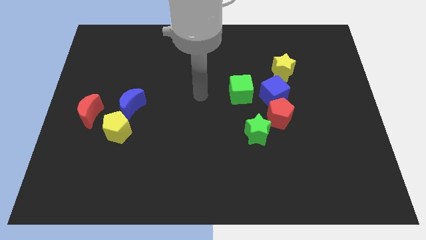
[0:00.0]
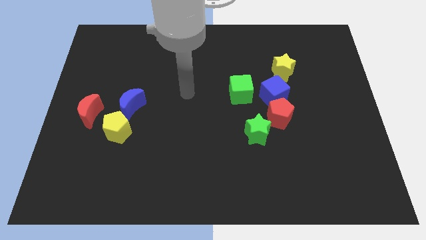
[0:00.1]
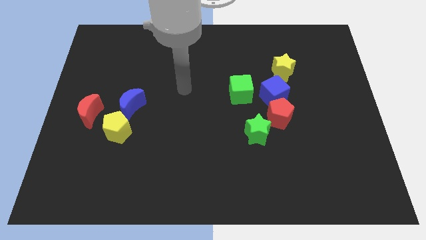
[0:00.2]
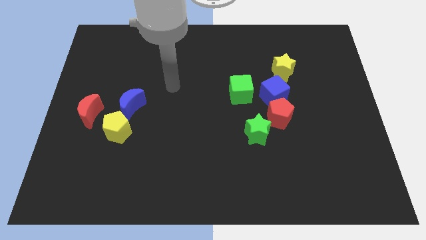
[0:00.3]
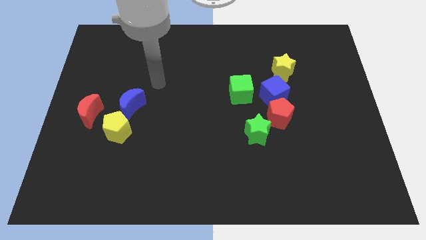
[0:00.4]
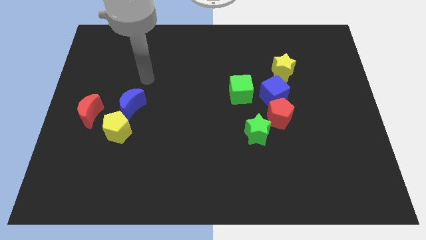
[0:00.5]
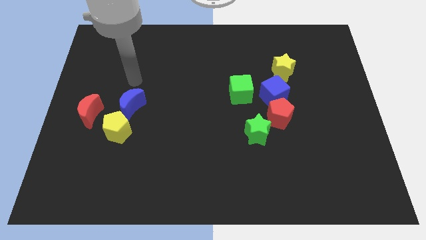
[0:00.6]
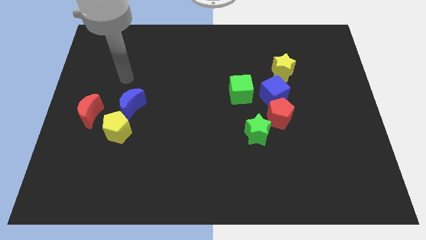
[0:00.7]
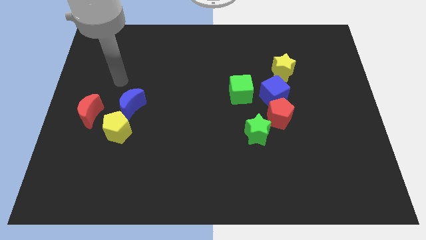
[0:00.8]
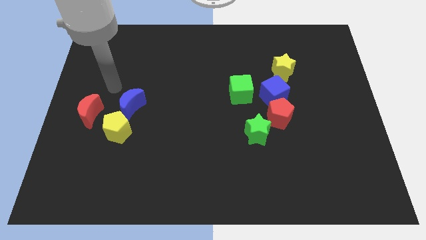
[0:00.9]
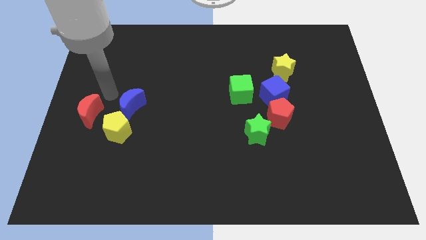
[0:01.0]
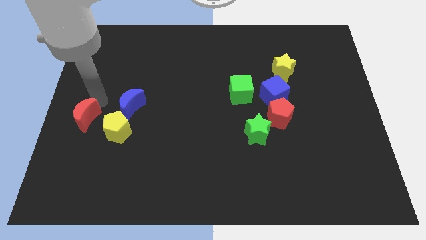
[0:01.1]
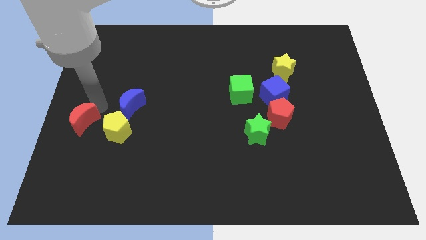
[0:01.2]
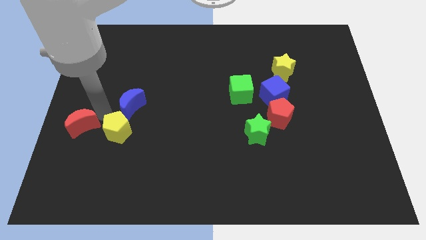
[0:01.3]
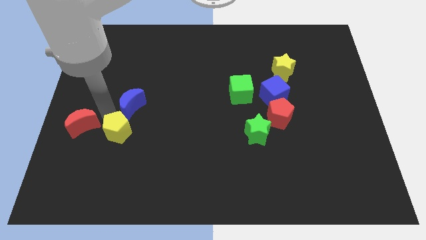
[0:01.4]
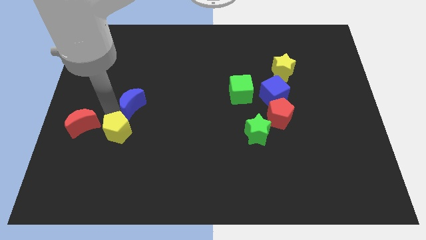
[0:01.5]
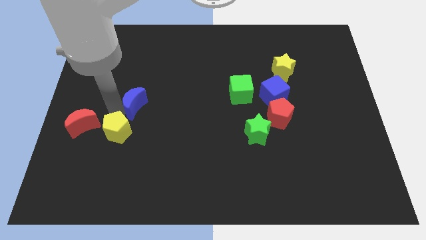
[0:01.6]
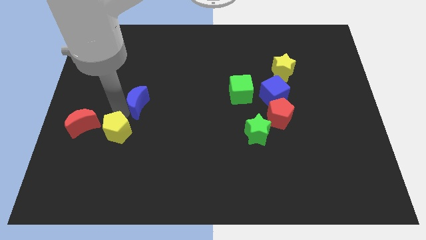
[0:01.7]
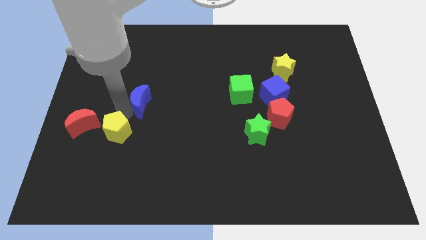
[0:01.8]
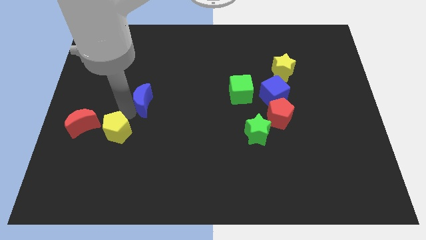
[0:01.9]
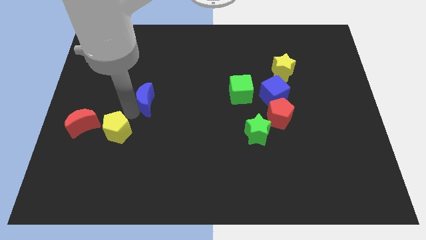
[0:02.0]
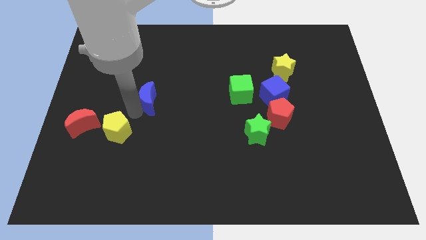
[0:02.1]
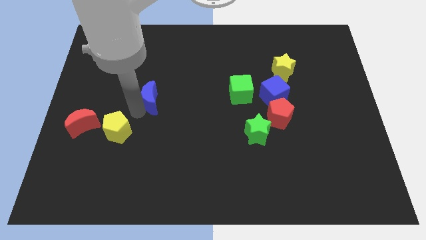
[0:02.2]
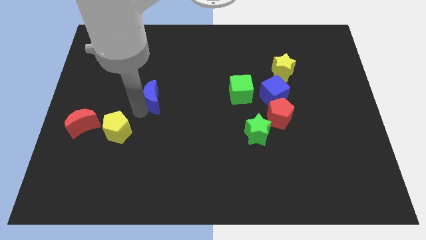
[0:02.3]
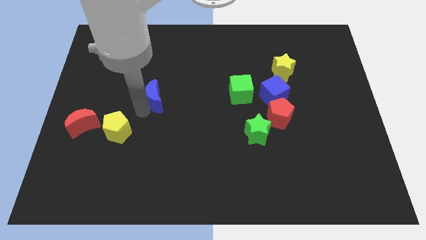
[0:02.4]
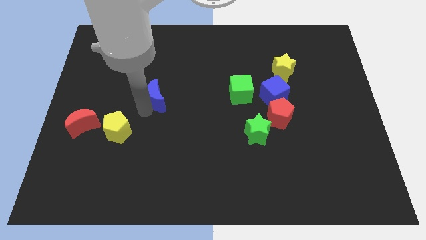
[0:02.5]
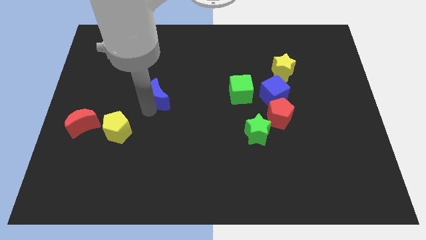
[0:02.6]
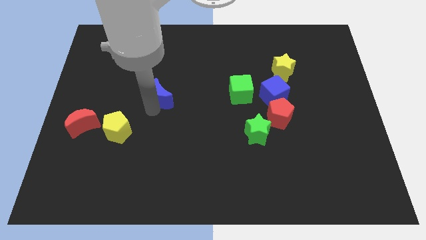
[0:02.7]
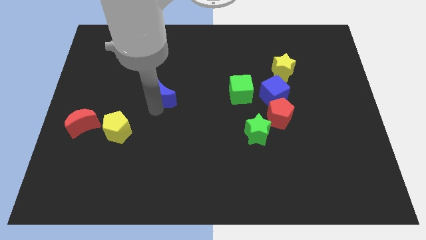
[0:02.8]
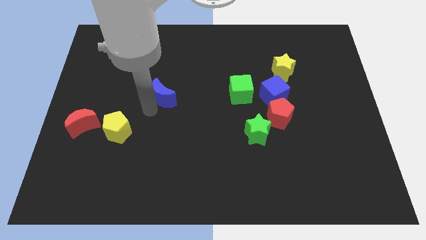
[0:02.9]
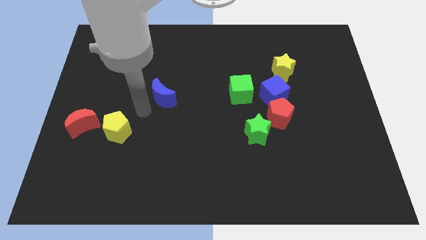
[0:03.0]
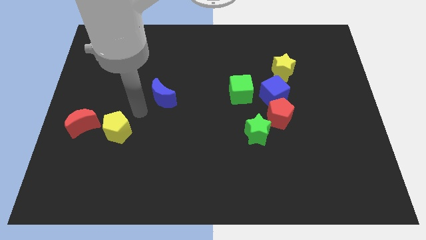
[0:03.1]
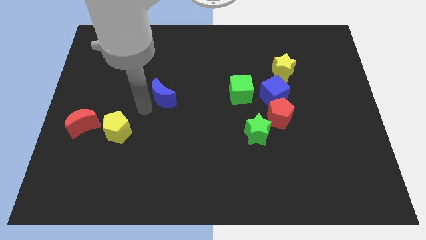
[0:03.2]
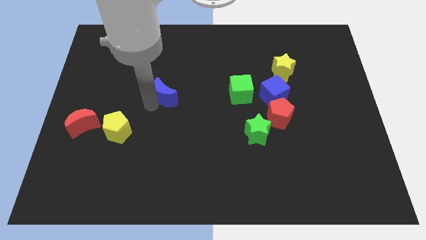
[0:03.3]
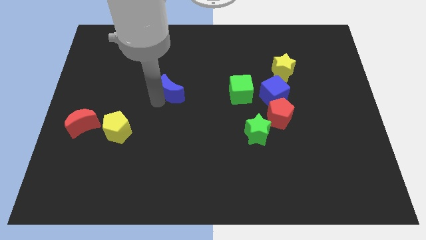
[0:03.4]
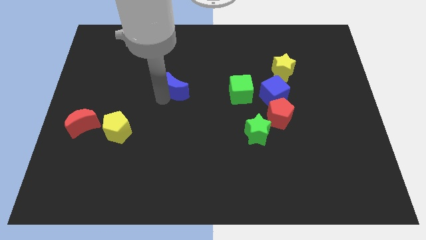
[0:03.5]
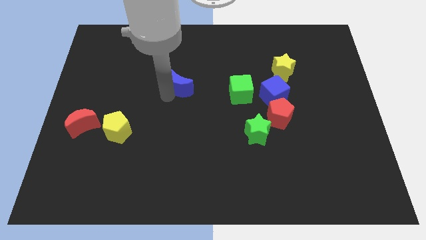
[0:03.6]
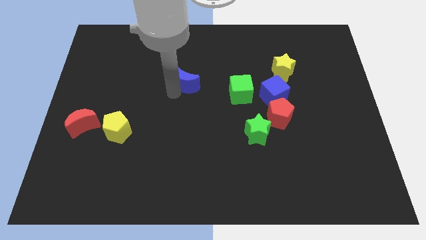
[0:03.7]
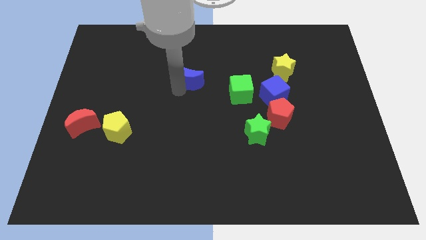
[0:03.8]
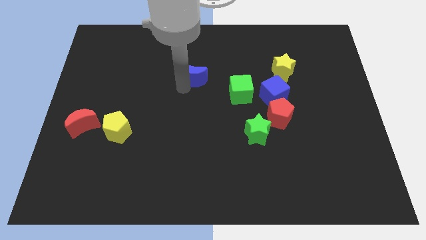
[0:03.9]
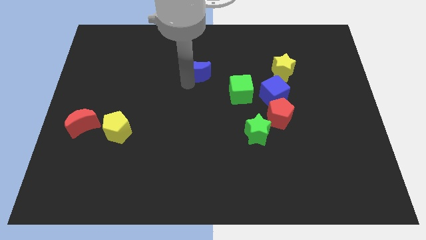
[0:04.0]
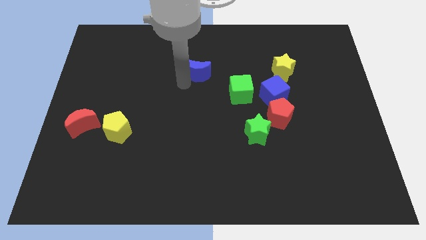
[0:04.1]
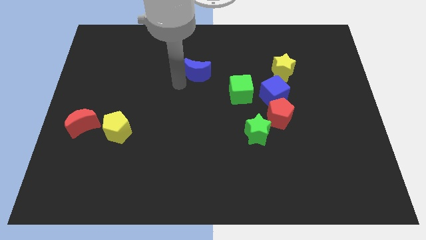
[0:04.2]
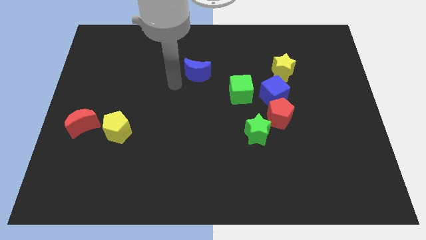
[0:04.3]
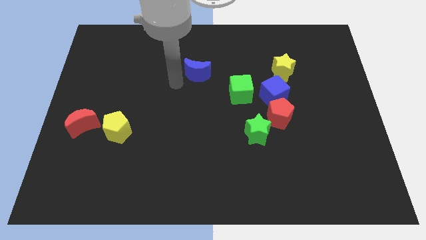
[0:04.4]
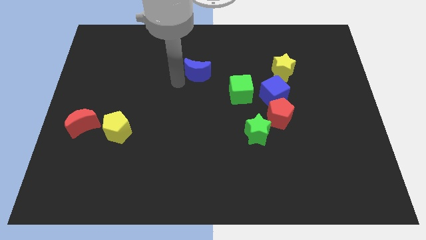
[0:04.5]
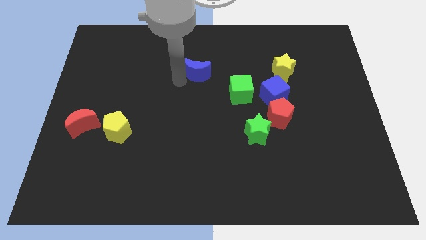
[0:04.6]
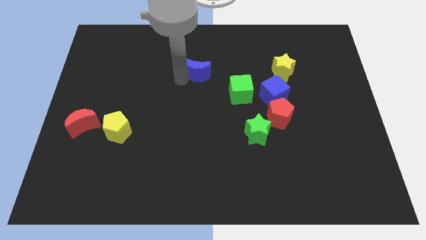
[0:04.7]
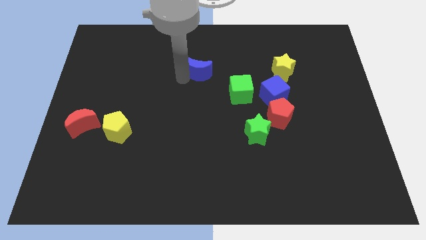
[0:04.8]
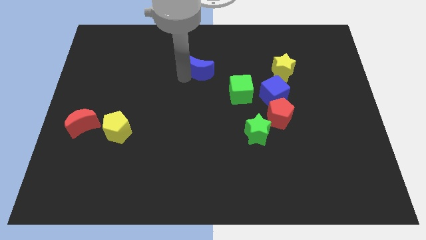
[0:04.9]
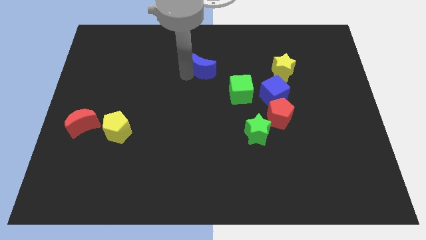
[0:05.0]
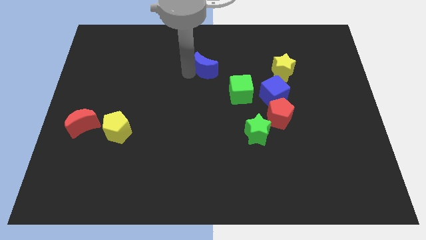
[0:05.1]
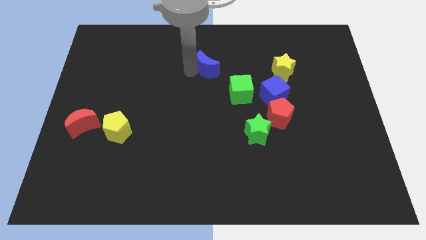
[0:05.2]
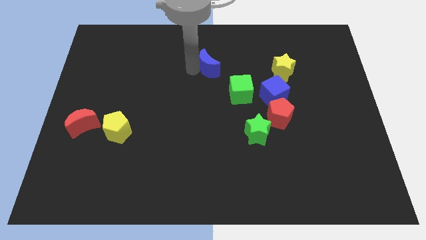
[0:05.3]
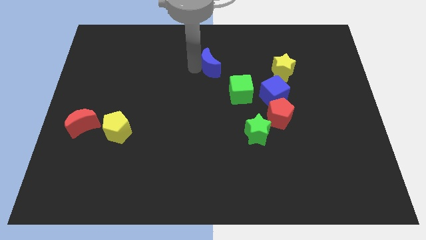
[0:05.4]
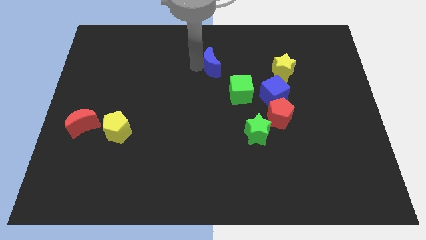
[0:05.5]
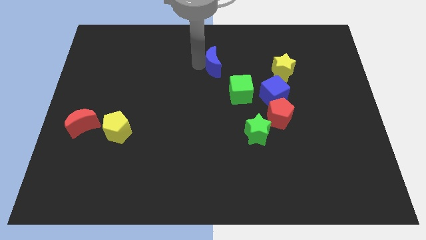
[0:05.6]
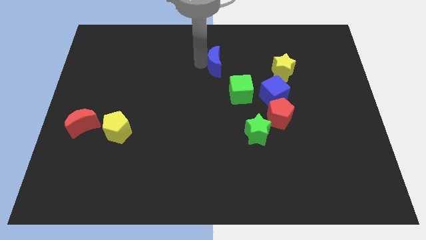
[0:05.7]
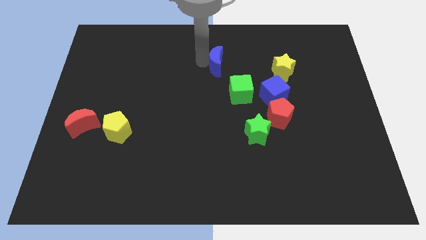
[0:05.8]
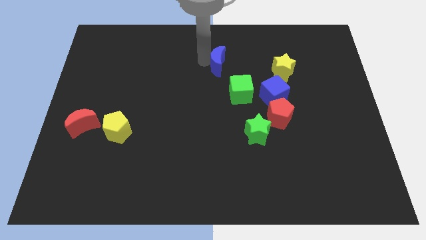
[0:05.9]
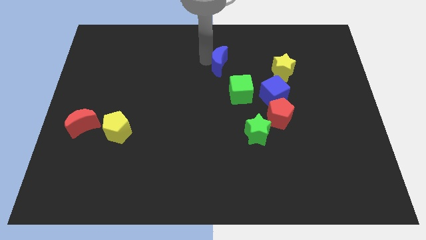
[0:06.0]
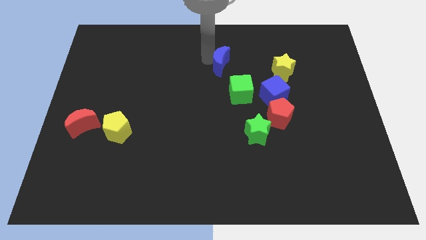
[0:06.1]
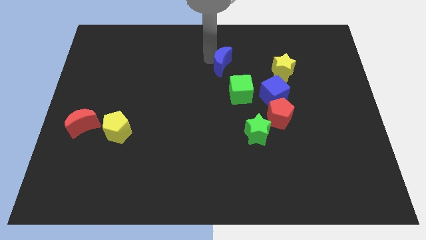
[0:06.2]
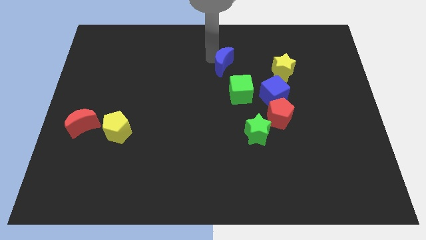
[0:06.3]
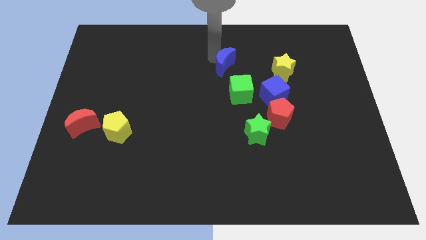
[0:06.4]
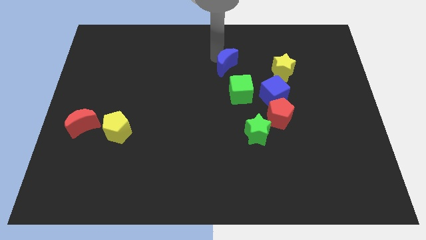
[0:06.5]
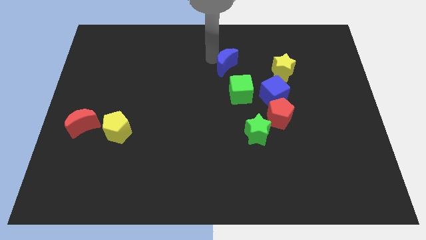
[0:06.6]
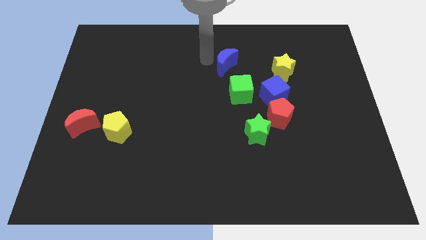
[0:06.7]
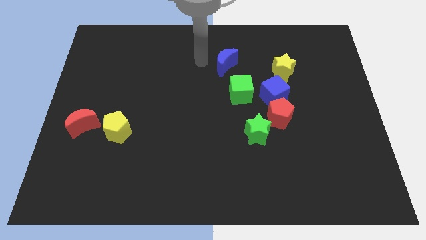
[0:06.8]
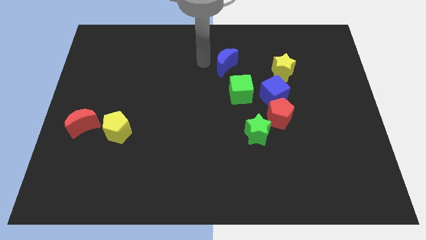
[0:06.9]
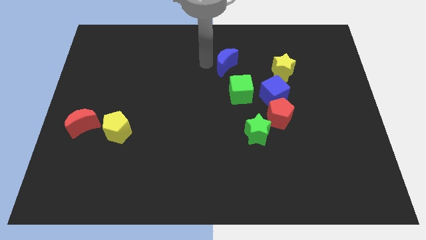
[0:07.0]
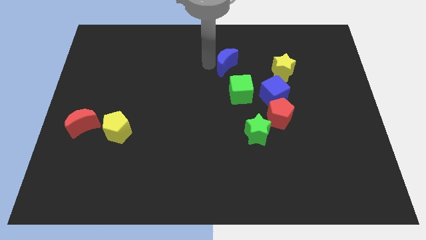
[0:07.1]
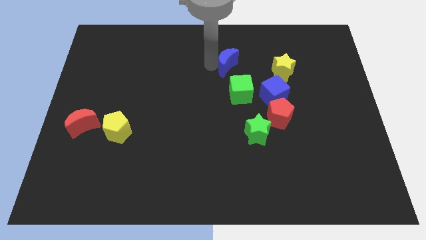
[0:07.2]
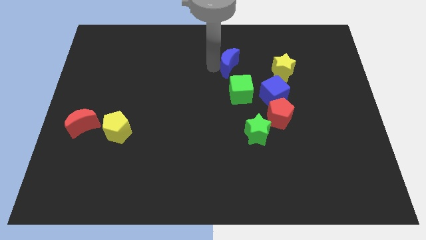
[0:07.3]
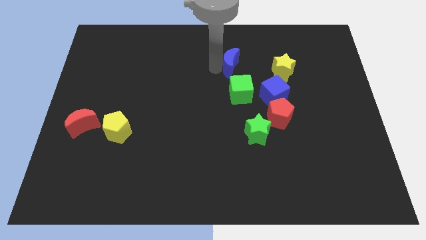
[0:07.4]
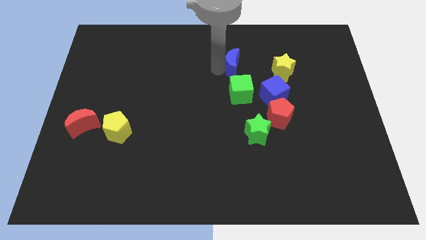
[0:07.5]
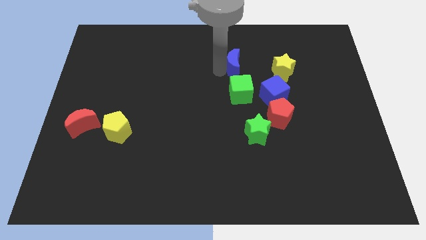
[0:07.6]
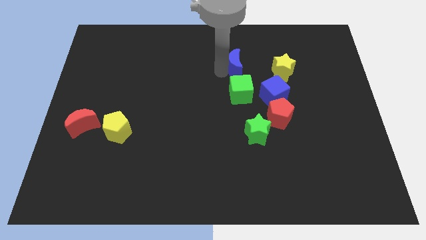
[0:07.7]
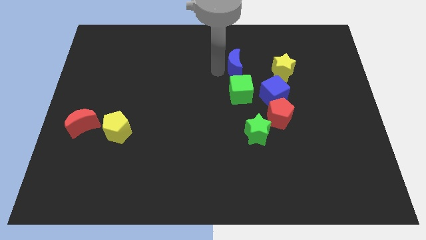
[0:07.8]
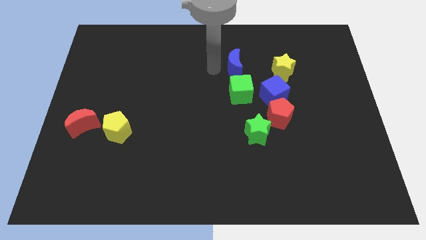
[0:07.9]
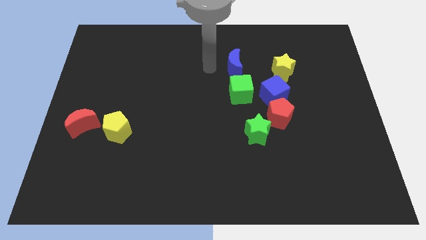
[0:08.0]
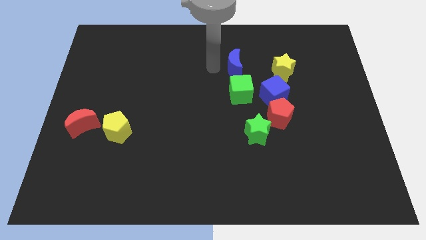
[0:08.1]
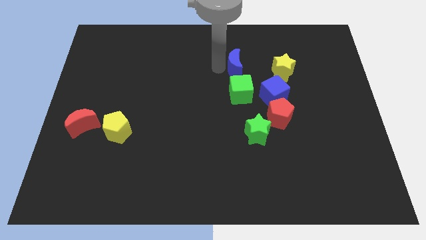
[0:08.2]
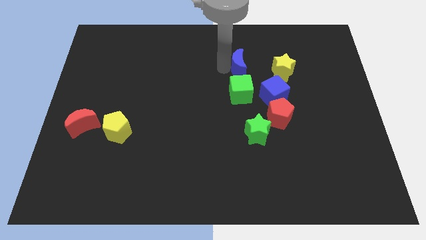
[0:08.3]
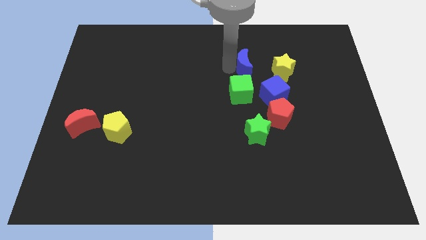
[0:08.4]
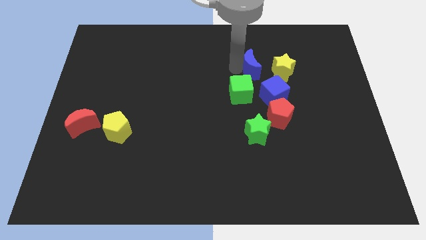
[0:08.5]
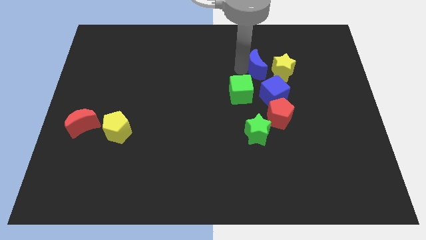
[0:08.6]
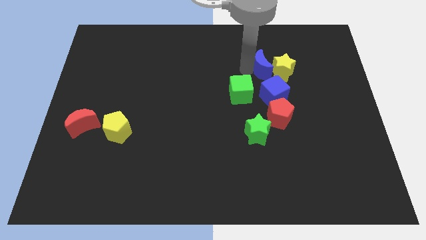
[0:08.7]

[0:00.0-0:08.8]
put the blue moon close to the yellow star
